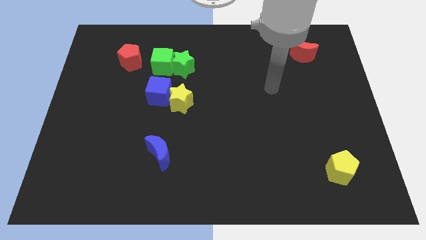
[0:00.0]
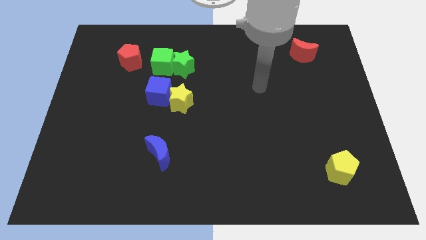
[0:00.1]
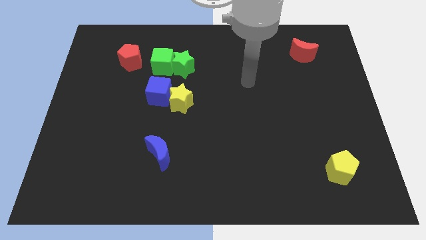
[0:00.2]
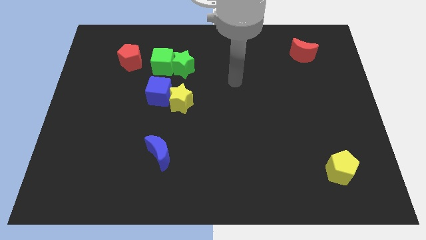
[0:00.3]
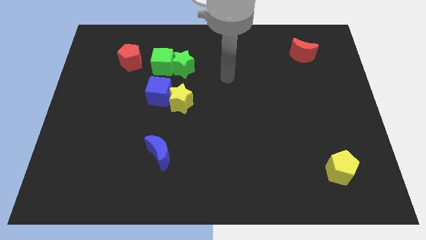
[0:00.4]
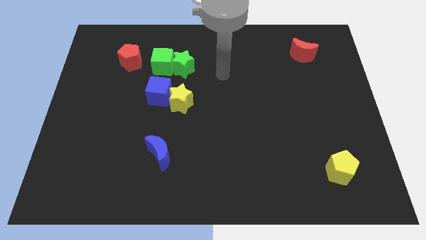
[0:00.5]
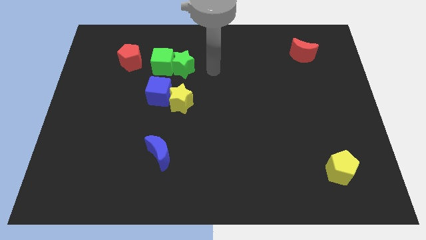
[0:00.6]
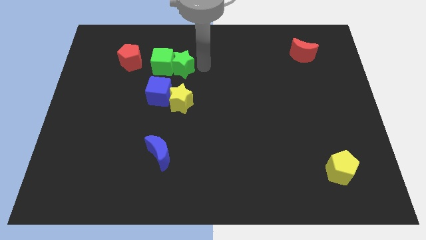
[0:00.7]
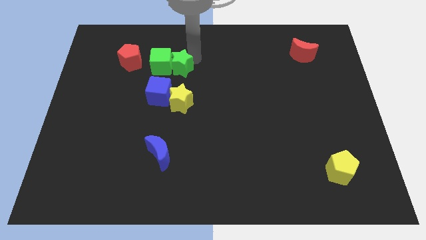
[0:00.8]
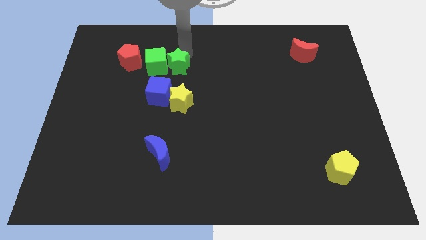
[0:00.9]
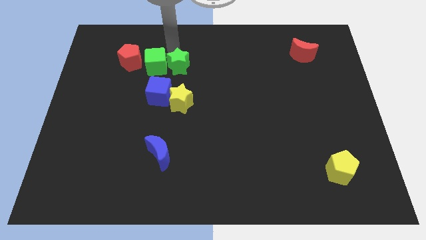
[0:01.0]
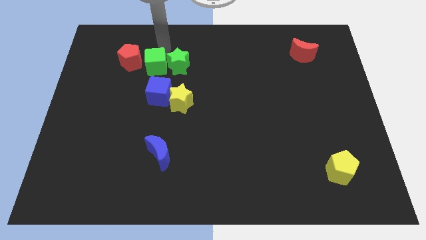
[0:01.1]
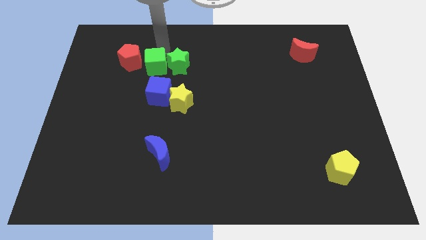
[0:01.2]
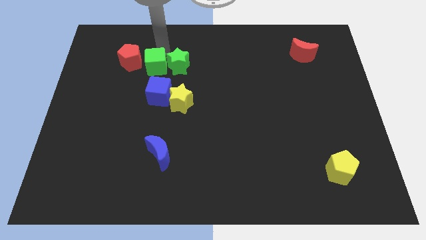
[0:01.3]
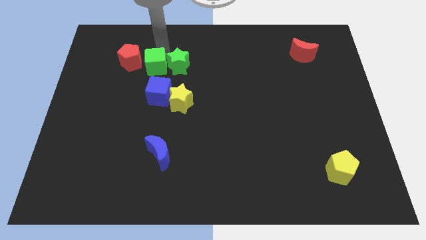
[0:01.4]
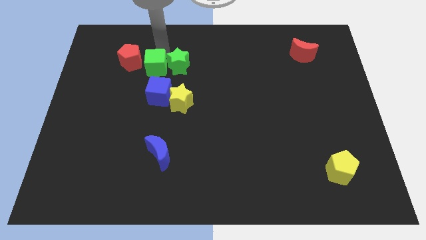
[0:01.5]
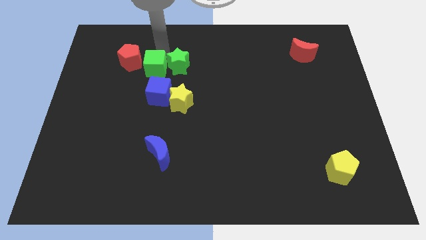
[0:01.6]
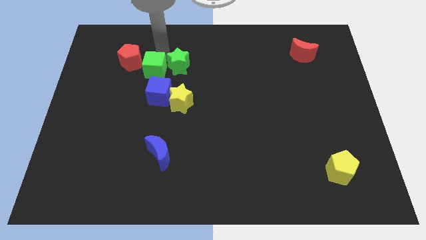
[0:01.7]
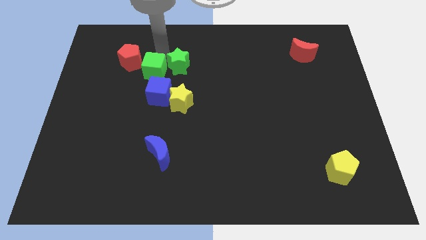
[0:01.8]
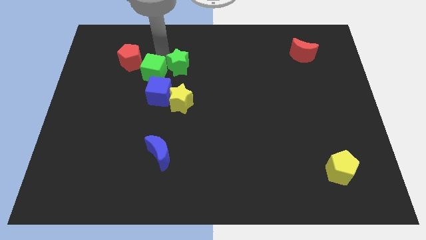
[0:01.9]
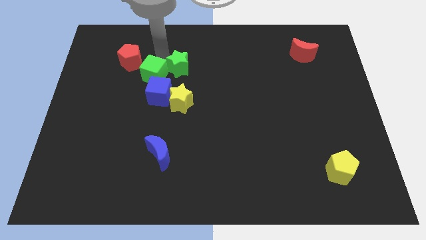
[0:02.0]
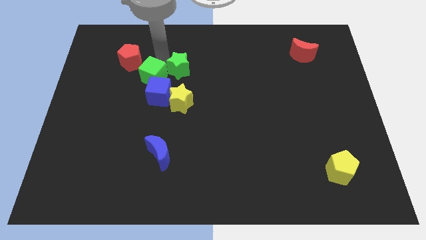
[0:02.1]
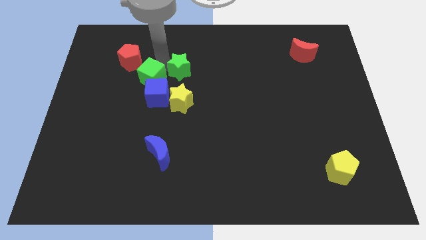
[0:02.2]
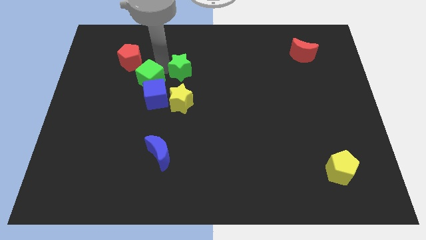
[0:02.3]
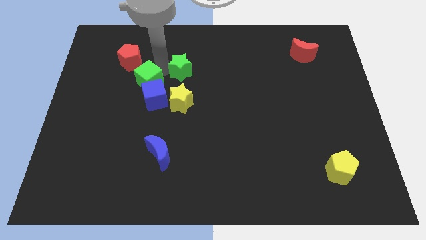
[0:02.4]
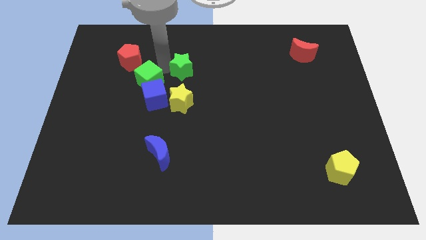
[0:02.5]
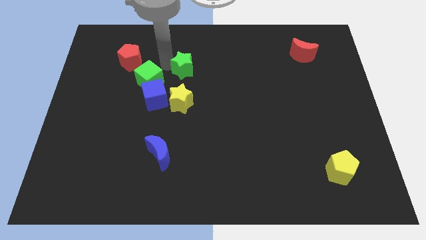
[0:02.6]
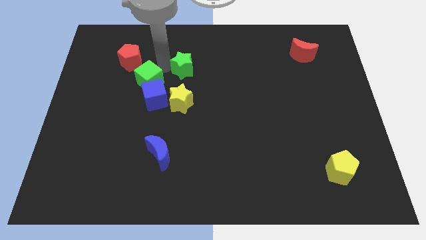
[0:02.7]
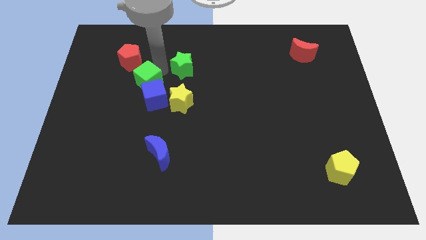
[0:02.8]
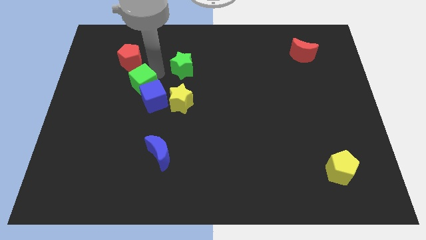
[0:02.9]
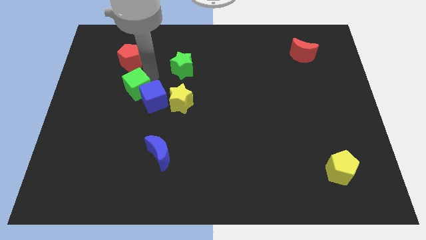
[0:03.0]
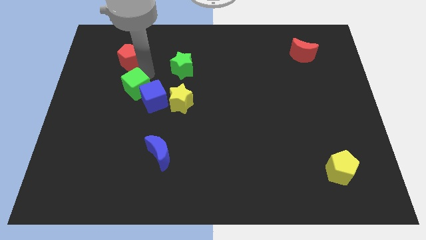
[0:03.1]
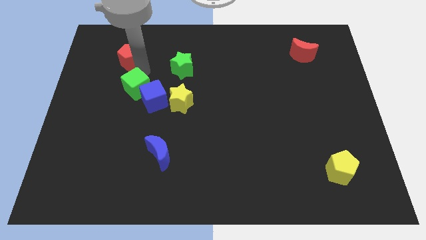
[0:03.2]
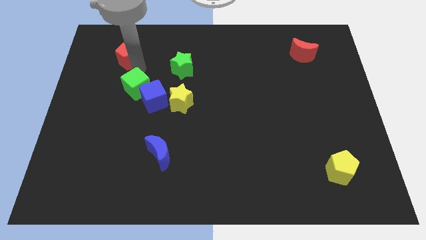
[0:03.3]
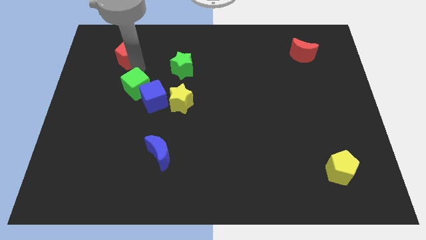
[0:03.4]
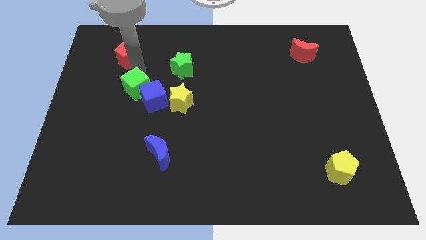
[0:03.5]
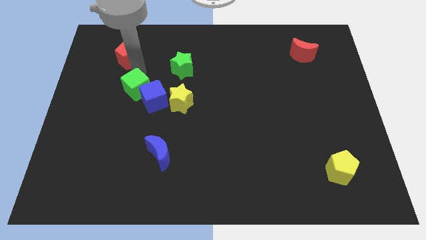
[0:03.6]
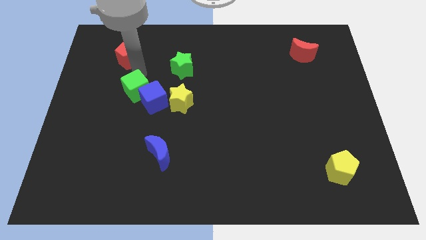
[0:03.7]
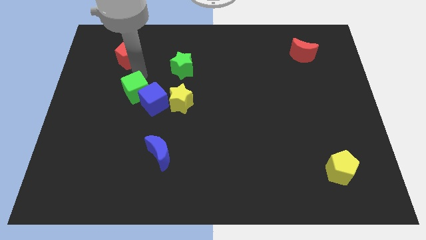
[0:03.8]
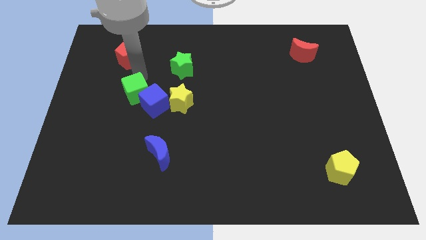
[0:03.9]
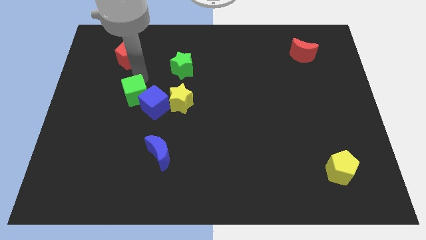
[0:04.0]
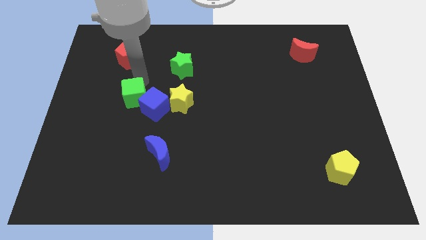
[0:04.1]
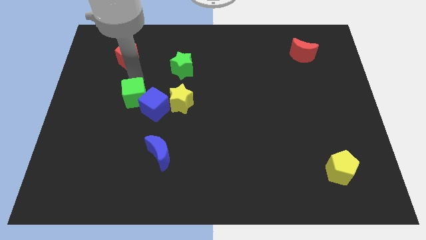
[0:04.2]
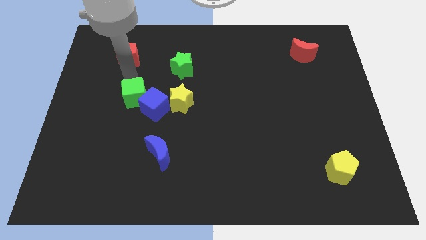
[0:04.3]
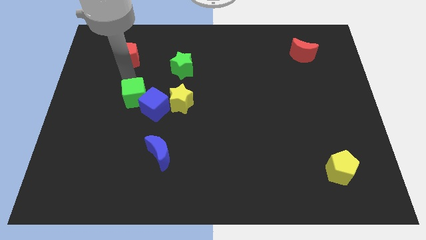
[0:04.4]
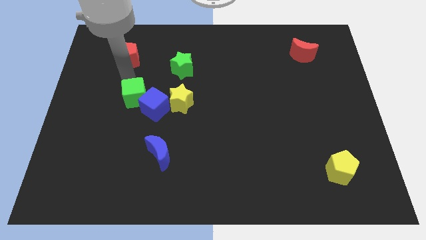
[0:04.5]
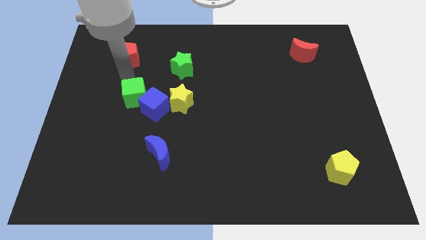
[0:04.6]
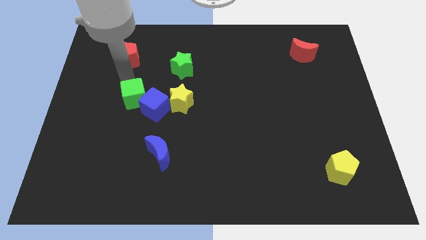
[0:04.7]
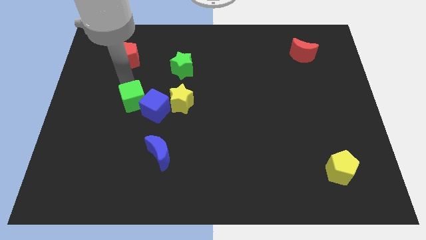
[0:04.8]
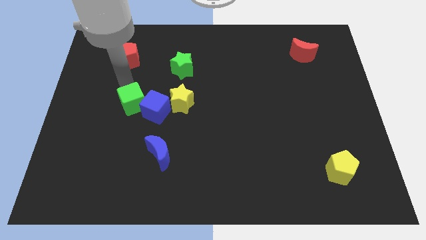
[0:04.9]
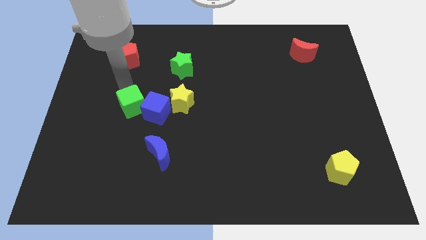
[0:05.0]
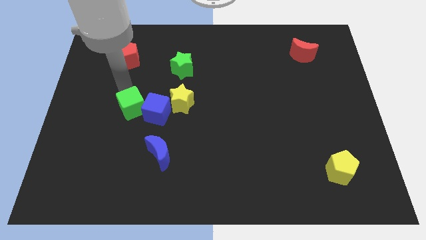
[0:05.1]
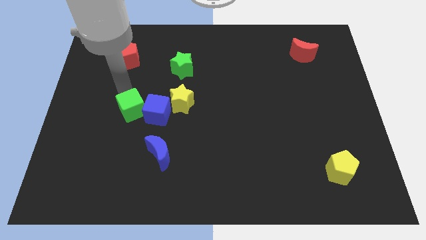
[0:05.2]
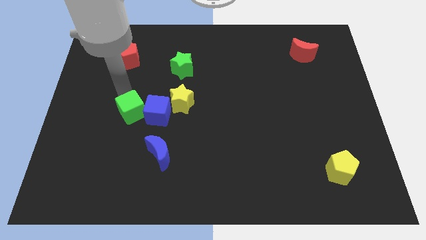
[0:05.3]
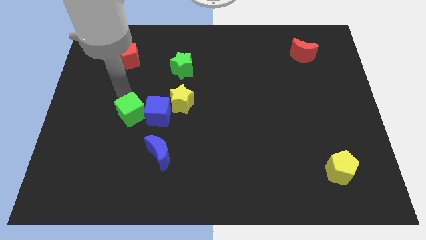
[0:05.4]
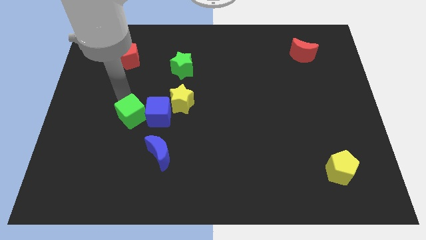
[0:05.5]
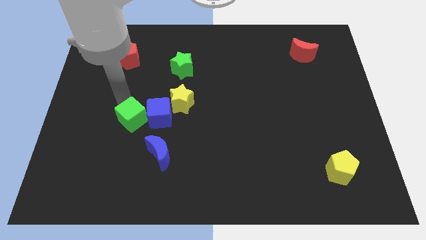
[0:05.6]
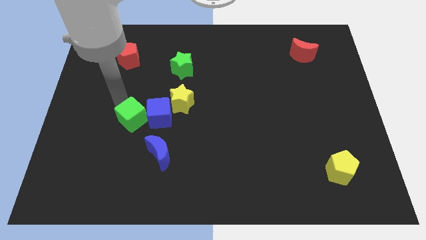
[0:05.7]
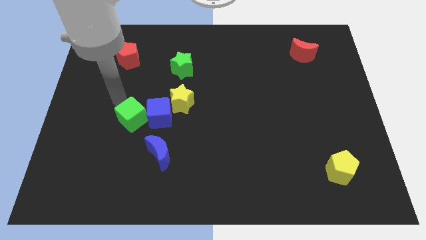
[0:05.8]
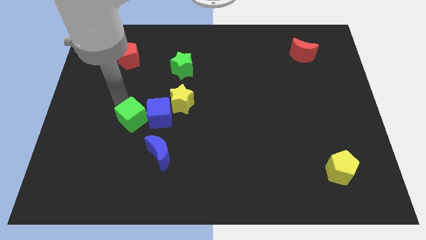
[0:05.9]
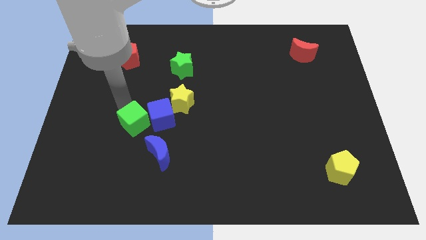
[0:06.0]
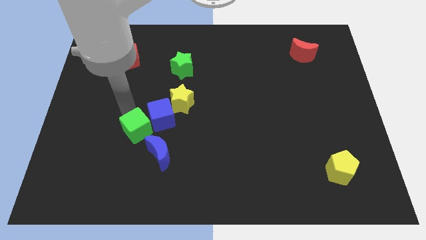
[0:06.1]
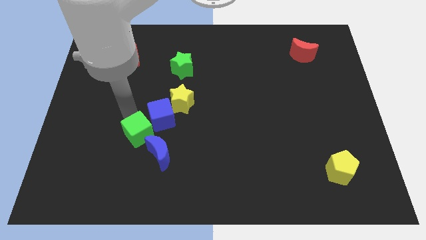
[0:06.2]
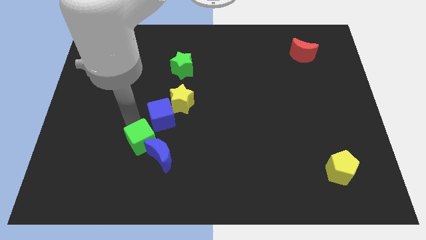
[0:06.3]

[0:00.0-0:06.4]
slide the green cube next to the blue moon

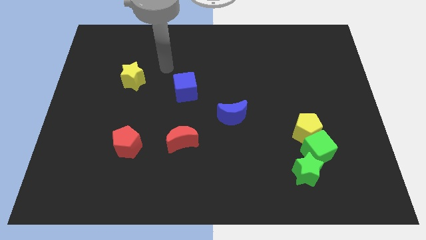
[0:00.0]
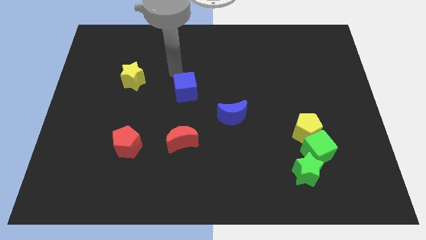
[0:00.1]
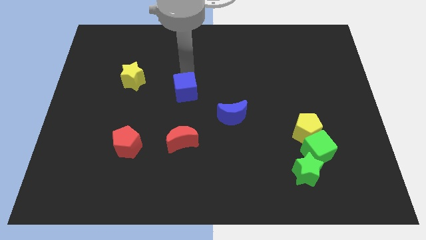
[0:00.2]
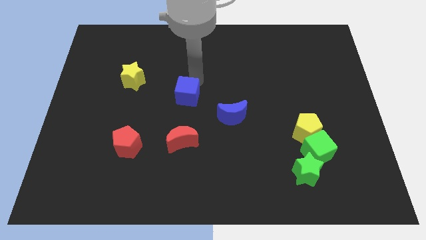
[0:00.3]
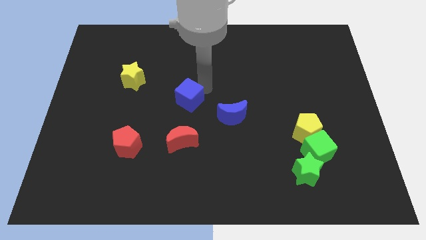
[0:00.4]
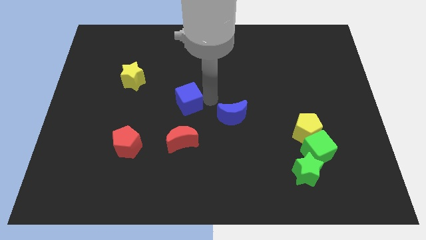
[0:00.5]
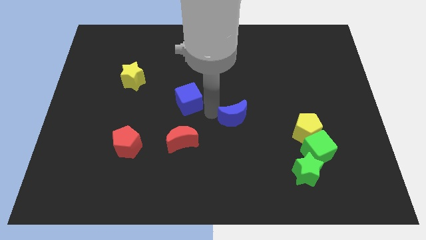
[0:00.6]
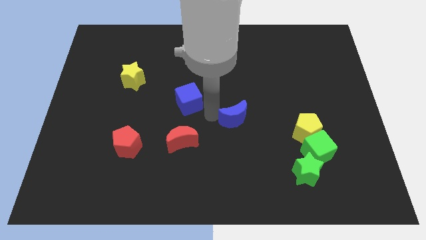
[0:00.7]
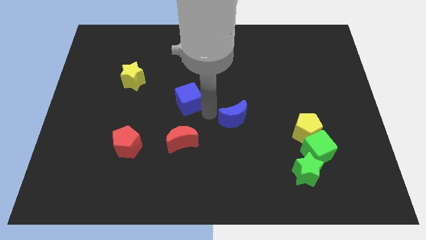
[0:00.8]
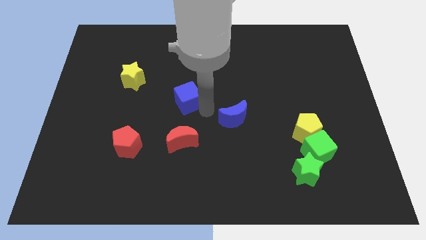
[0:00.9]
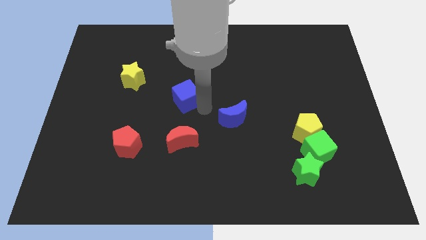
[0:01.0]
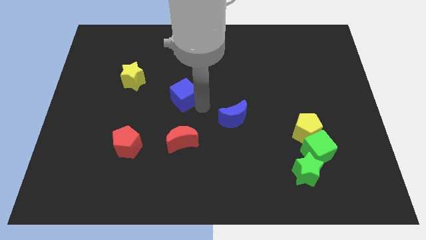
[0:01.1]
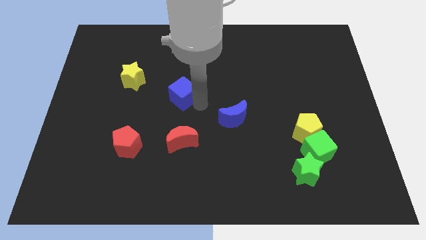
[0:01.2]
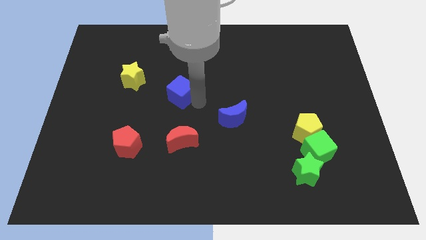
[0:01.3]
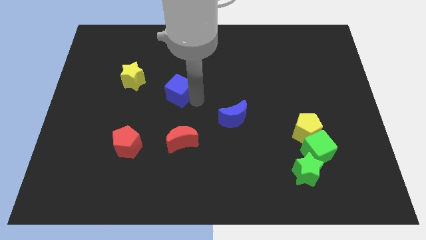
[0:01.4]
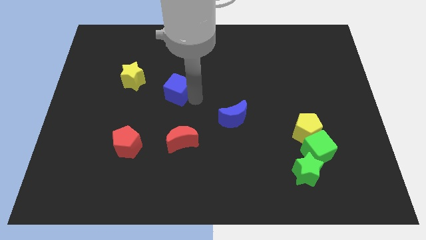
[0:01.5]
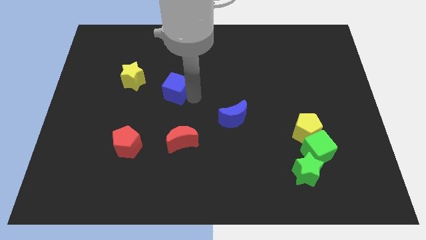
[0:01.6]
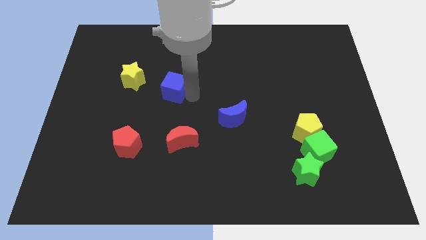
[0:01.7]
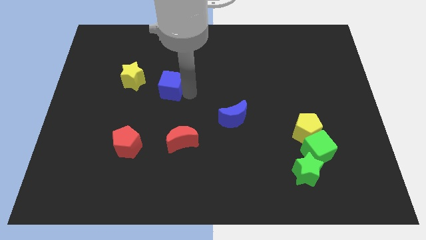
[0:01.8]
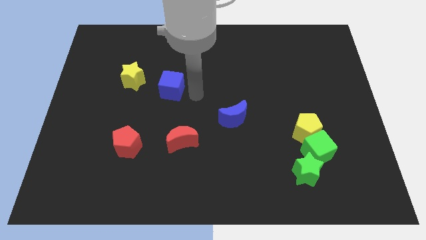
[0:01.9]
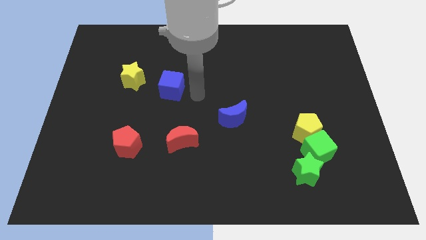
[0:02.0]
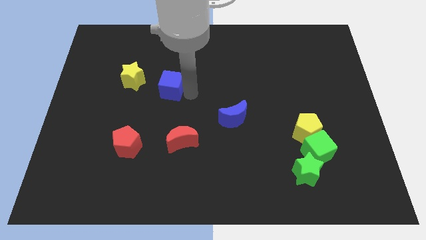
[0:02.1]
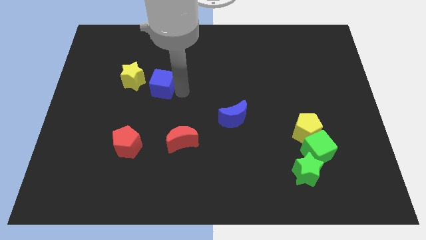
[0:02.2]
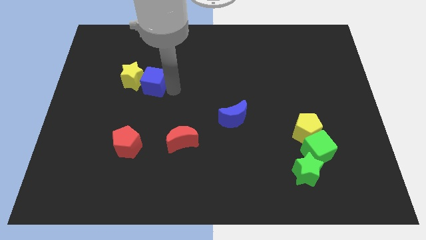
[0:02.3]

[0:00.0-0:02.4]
move the blue cube close to the yellow star
